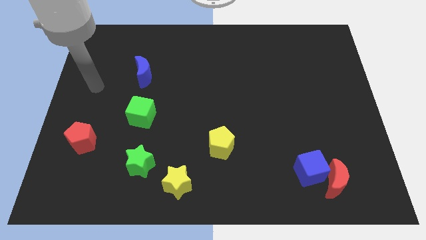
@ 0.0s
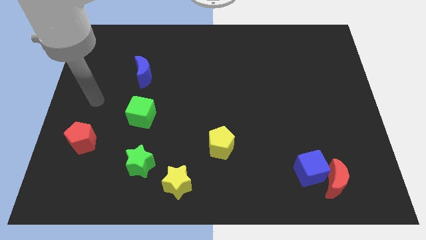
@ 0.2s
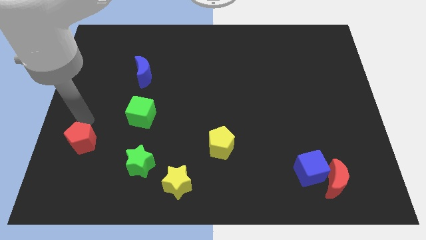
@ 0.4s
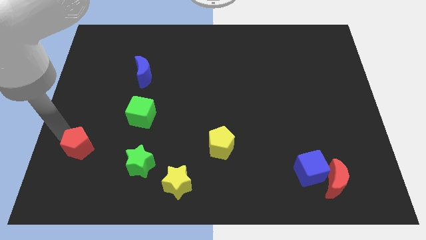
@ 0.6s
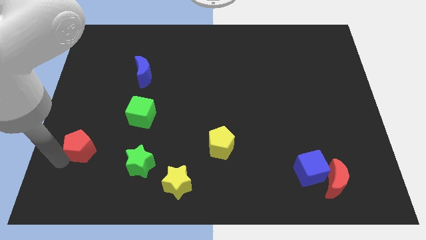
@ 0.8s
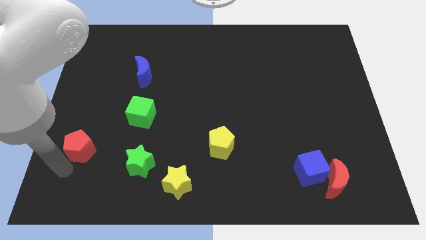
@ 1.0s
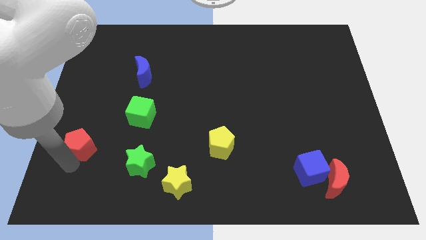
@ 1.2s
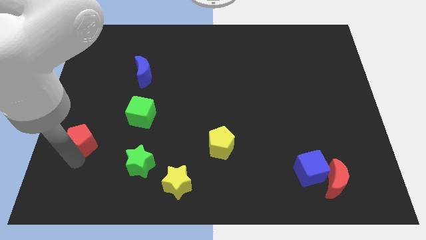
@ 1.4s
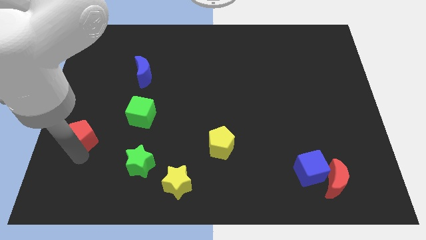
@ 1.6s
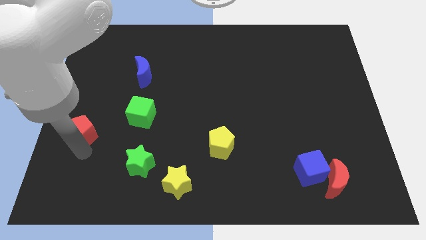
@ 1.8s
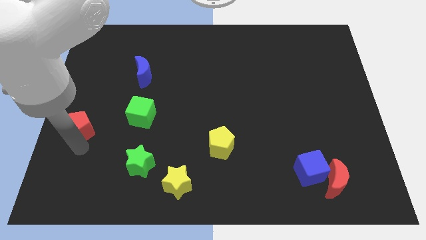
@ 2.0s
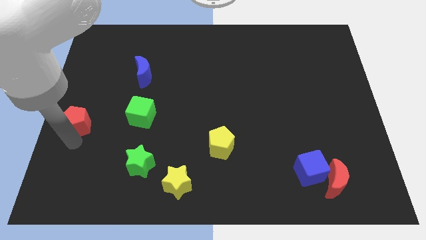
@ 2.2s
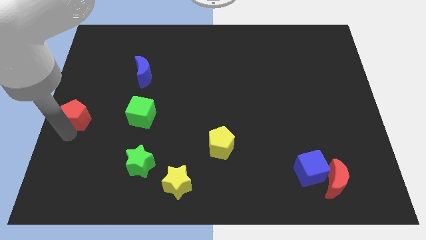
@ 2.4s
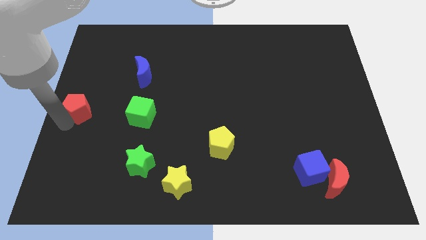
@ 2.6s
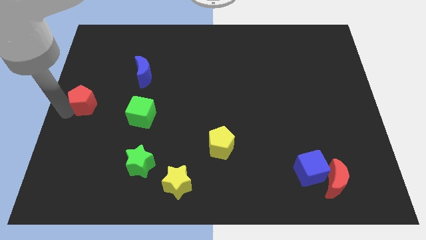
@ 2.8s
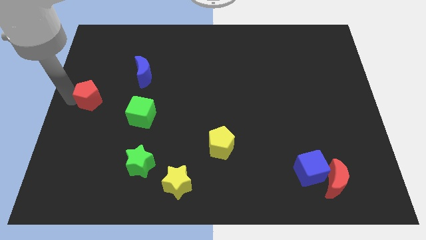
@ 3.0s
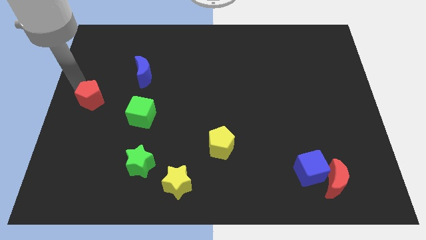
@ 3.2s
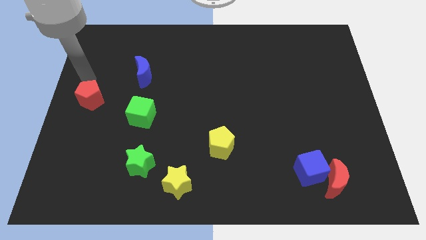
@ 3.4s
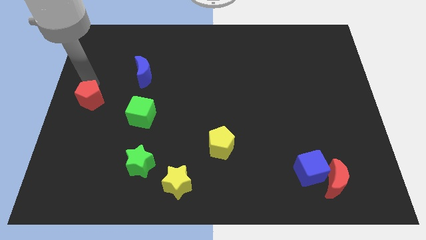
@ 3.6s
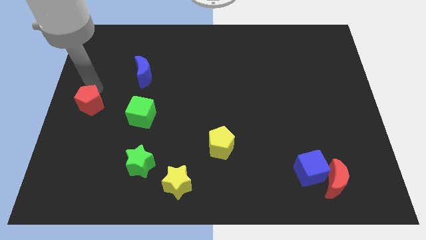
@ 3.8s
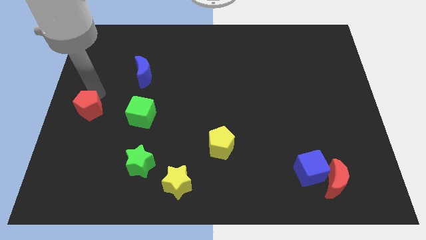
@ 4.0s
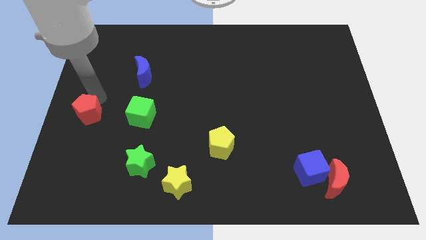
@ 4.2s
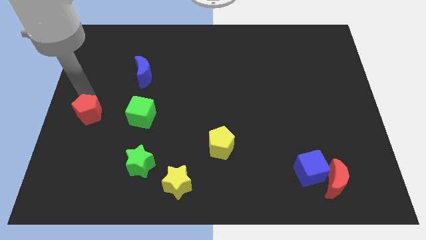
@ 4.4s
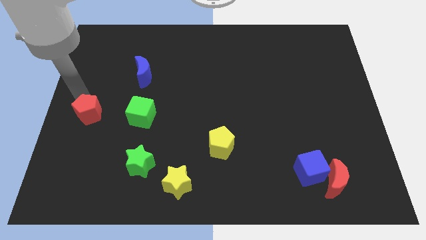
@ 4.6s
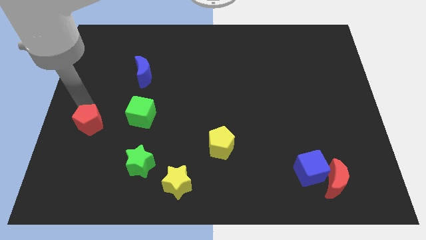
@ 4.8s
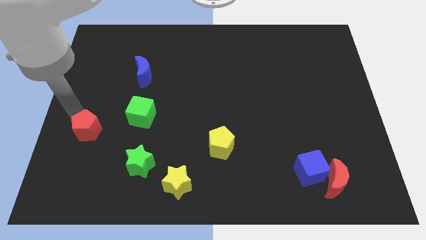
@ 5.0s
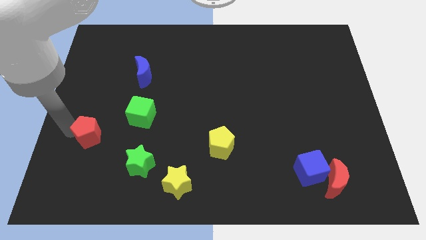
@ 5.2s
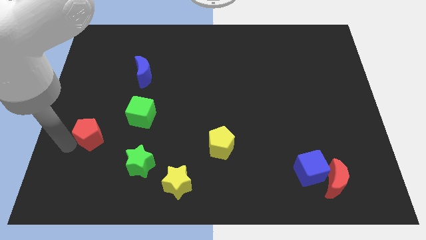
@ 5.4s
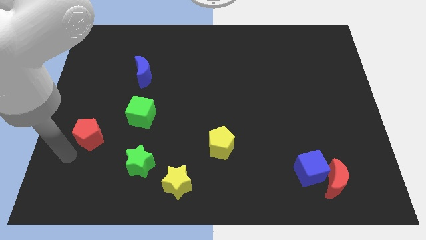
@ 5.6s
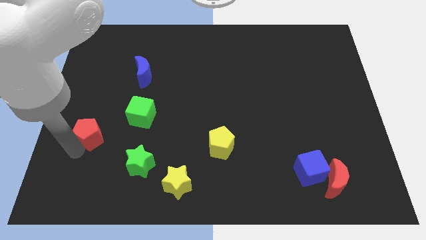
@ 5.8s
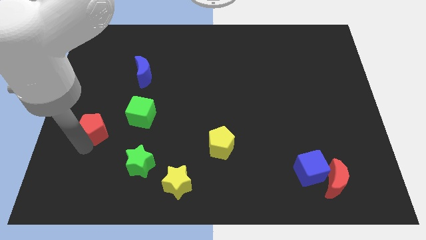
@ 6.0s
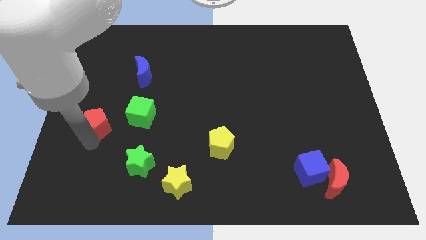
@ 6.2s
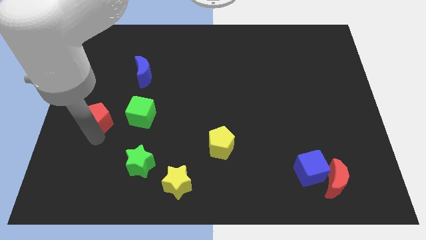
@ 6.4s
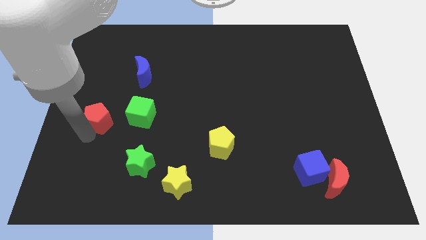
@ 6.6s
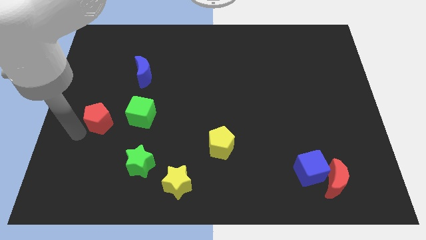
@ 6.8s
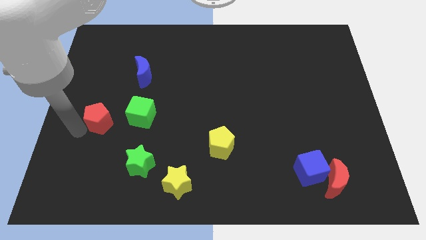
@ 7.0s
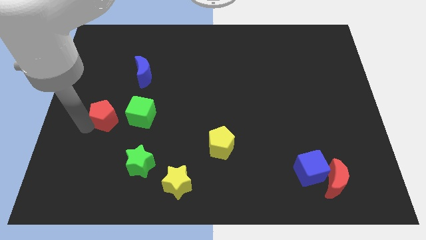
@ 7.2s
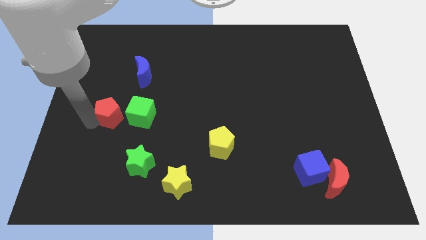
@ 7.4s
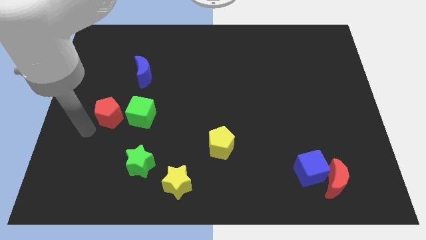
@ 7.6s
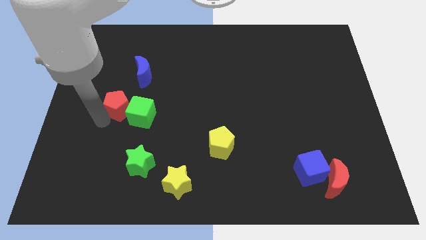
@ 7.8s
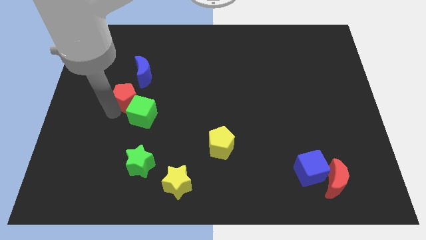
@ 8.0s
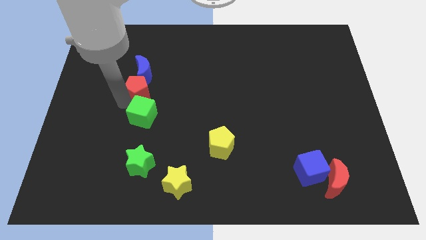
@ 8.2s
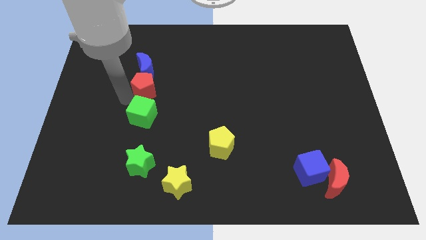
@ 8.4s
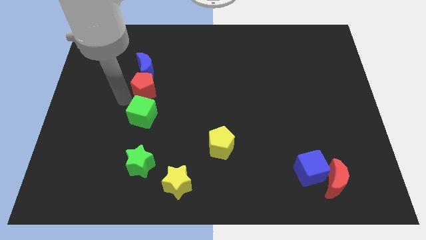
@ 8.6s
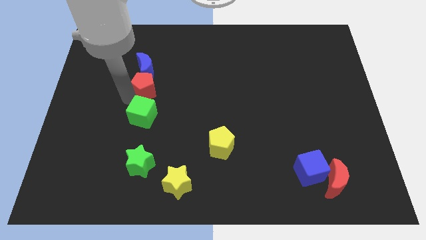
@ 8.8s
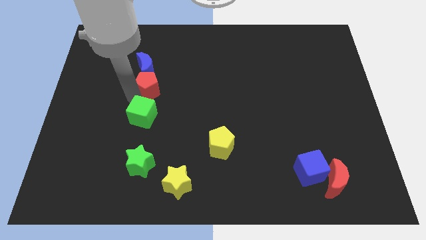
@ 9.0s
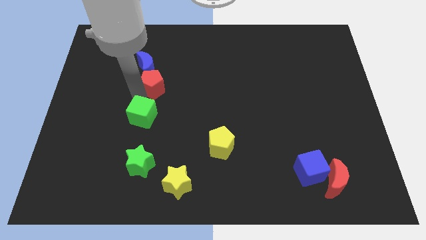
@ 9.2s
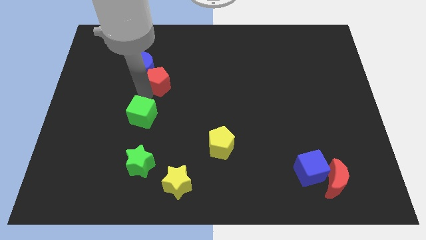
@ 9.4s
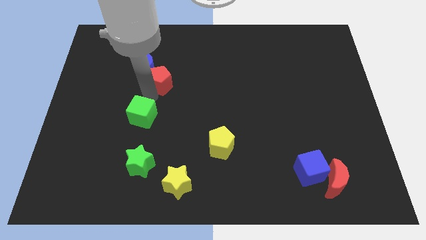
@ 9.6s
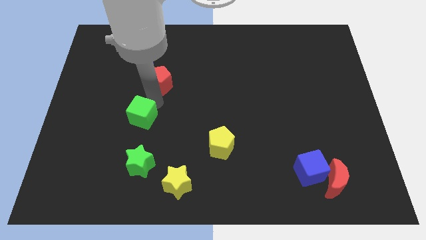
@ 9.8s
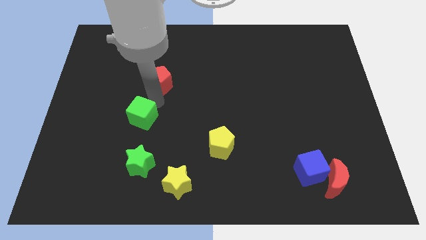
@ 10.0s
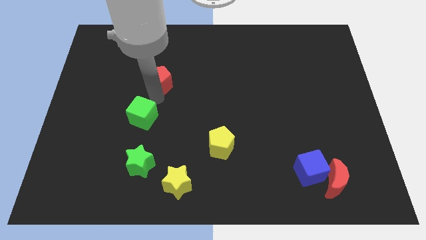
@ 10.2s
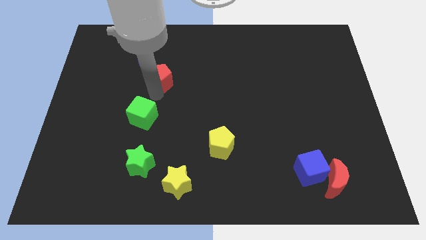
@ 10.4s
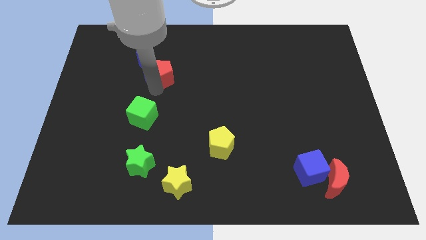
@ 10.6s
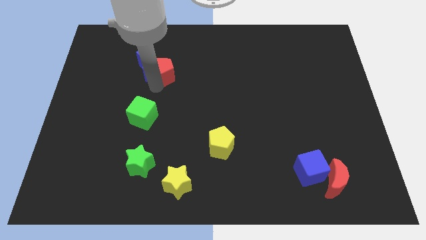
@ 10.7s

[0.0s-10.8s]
put the red pentagon to the top right of the blue moon

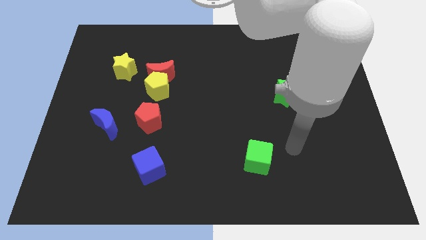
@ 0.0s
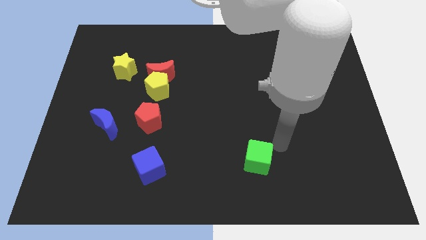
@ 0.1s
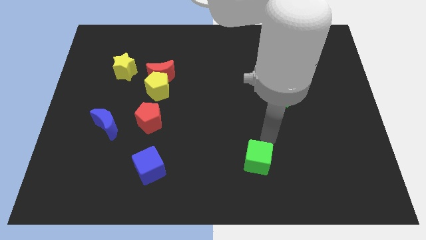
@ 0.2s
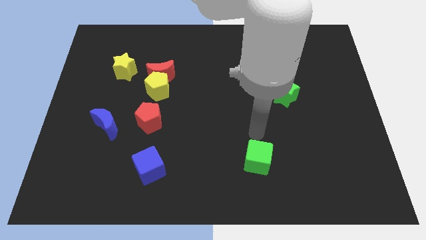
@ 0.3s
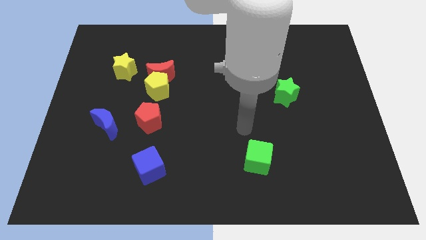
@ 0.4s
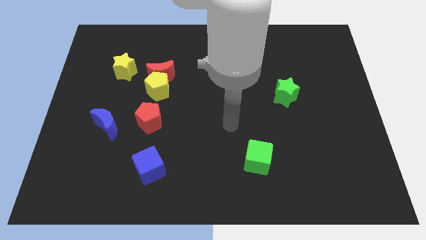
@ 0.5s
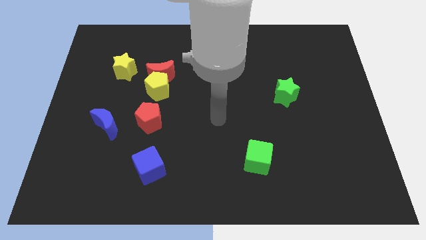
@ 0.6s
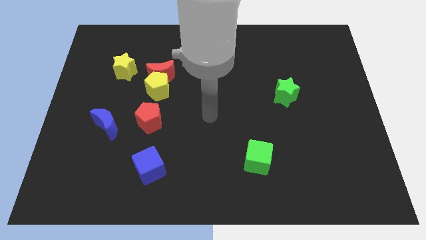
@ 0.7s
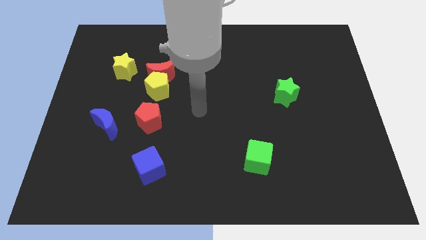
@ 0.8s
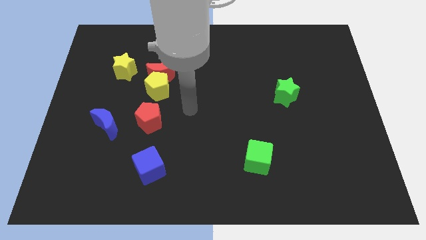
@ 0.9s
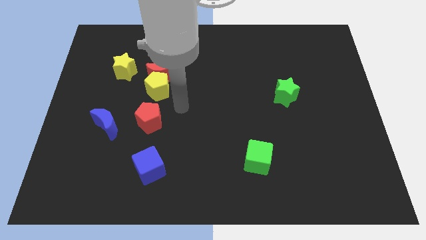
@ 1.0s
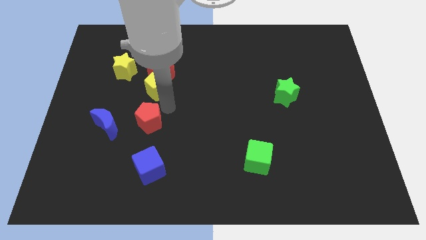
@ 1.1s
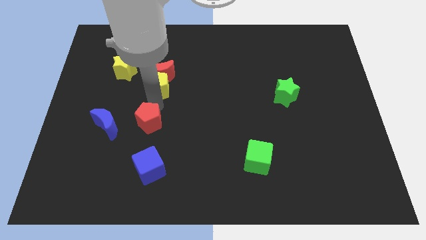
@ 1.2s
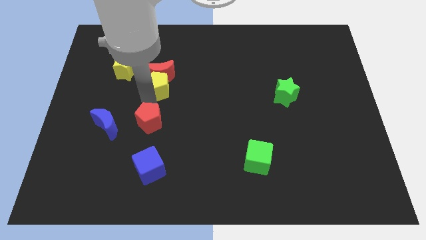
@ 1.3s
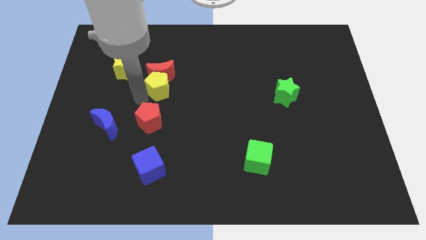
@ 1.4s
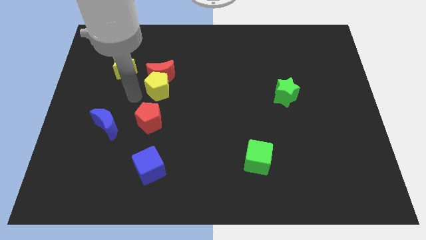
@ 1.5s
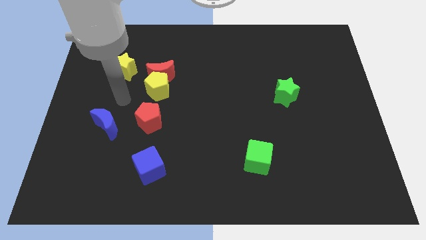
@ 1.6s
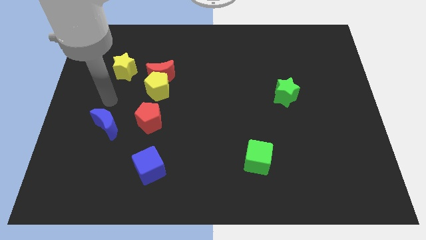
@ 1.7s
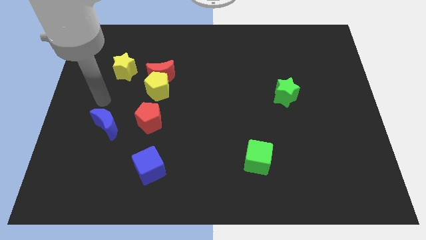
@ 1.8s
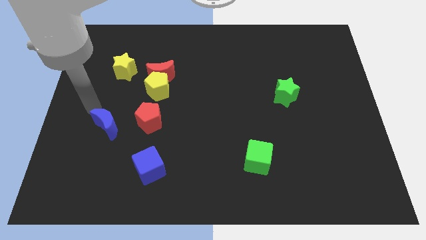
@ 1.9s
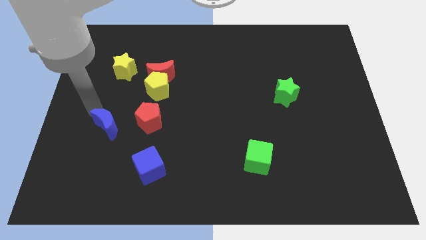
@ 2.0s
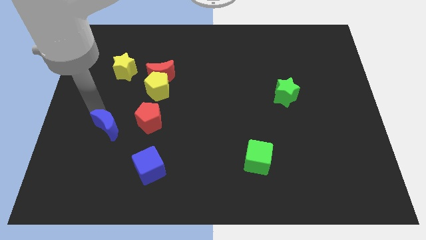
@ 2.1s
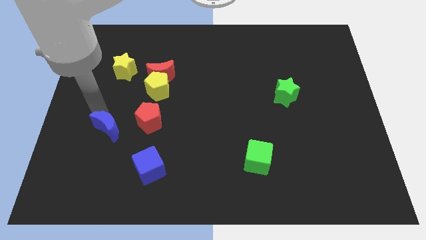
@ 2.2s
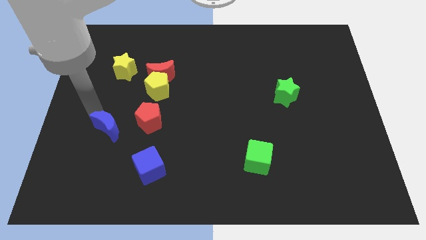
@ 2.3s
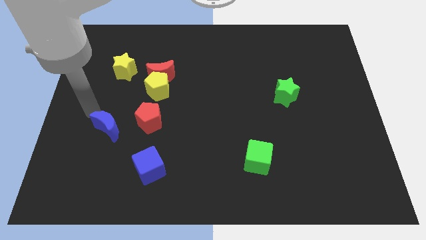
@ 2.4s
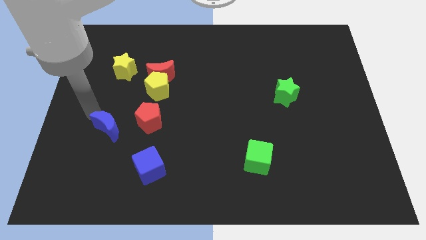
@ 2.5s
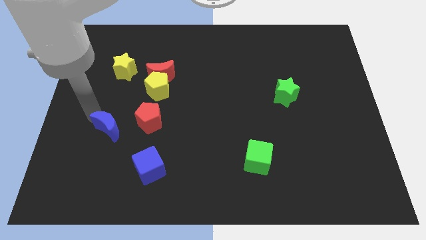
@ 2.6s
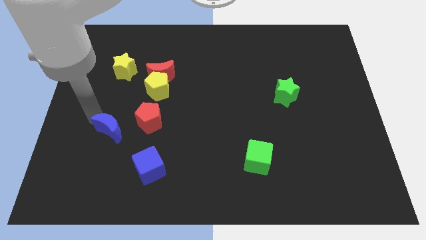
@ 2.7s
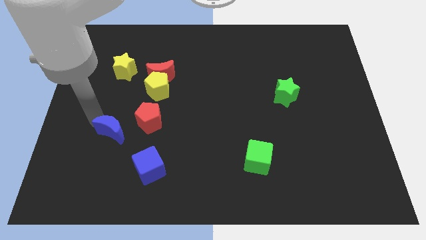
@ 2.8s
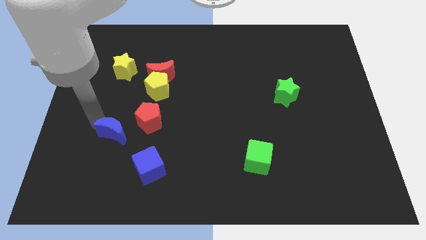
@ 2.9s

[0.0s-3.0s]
move the blue moon diagonally up and to the left of the blue cube
